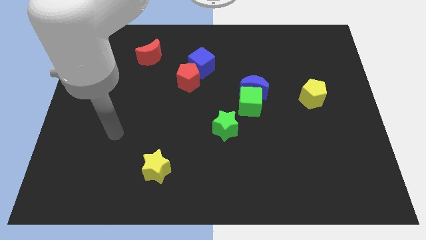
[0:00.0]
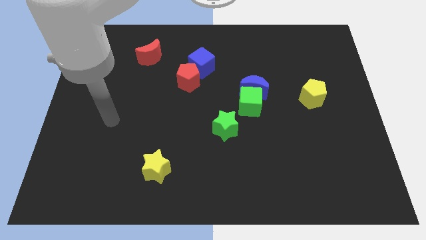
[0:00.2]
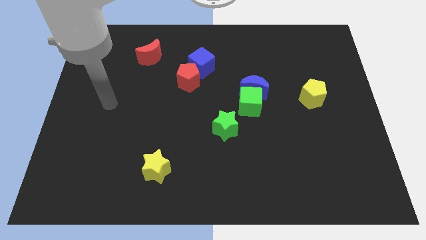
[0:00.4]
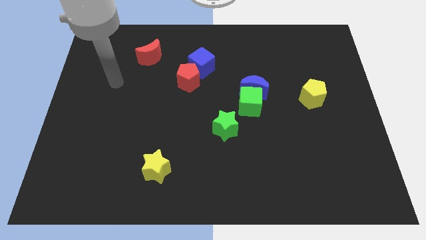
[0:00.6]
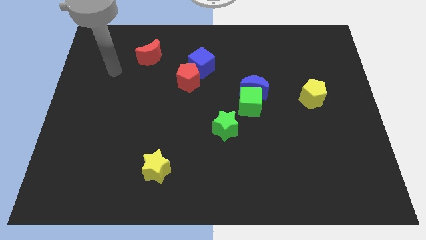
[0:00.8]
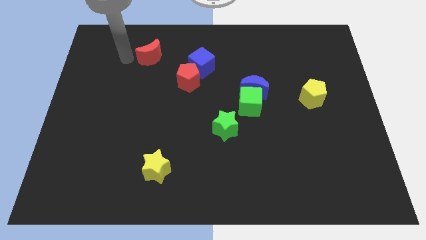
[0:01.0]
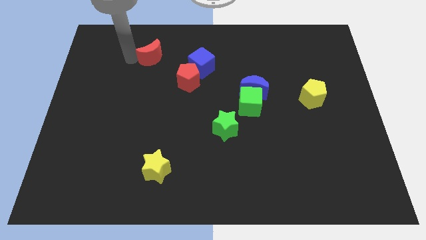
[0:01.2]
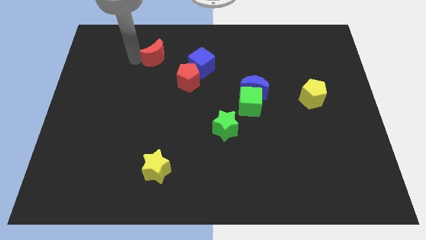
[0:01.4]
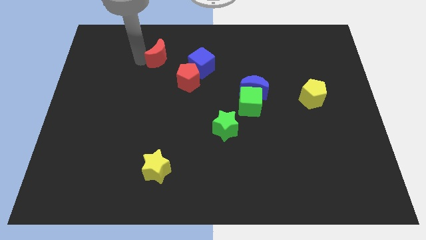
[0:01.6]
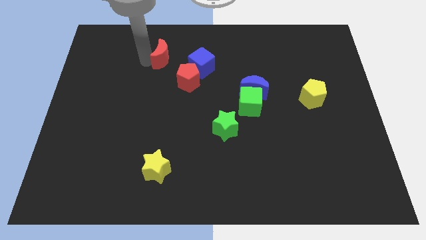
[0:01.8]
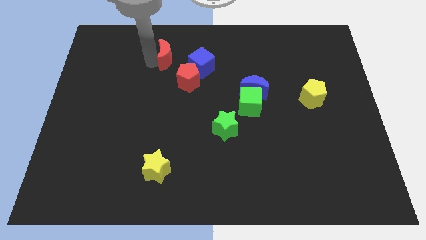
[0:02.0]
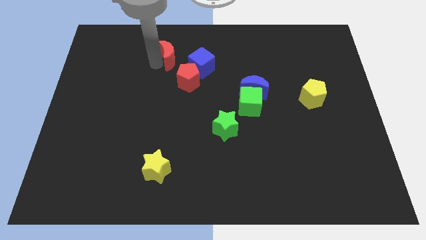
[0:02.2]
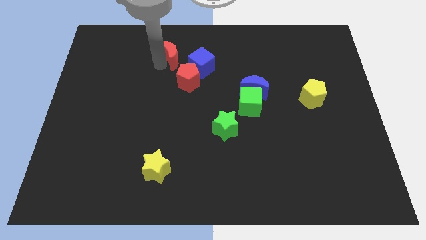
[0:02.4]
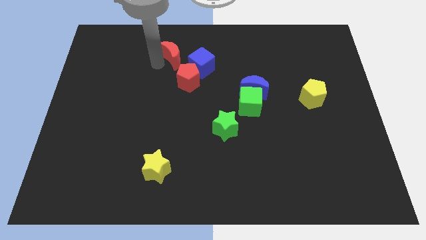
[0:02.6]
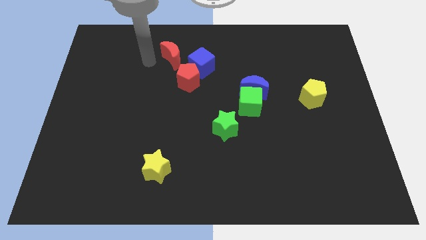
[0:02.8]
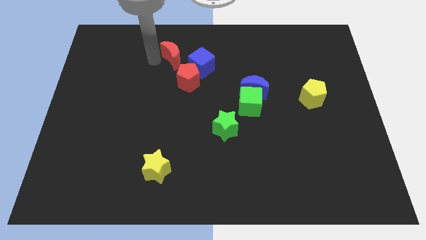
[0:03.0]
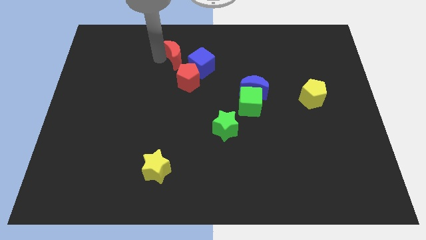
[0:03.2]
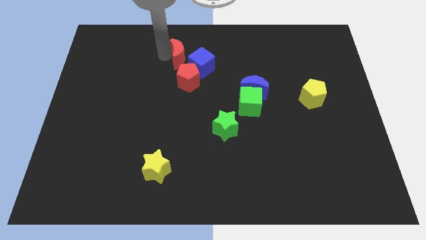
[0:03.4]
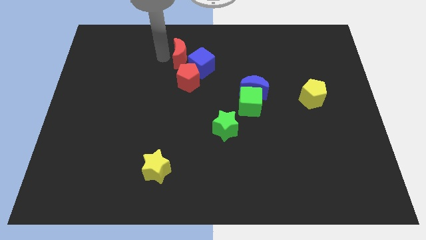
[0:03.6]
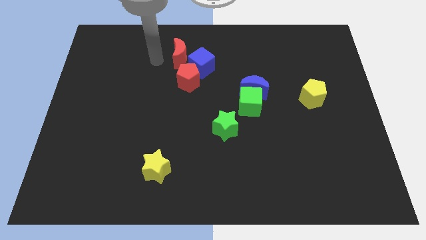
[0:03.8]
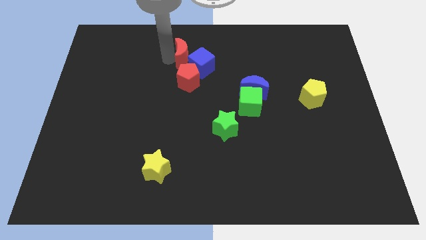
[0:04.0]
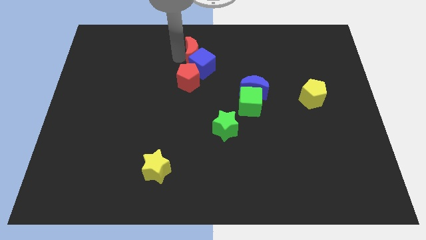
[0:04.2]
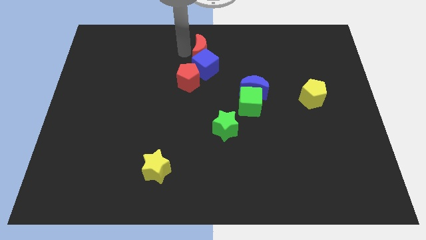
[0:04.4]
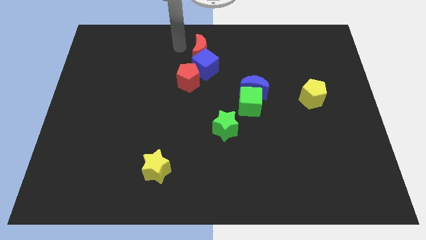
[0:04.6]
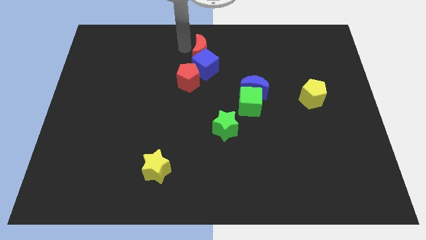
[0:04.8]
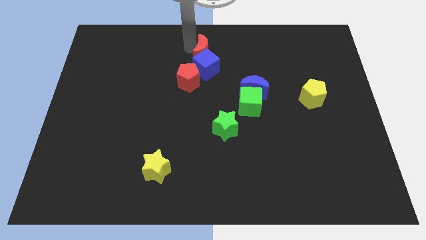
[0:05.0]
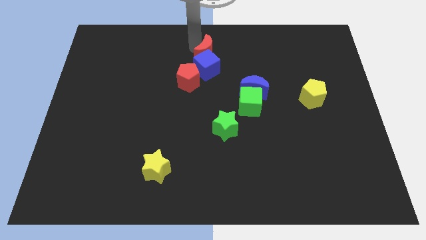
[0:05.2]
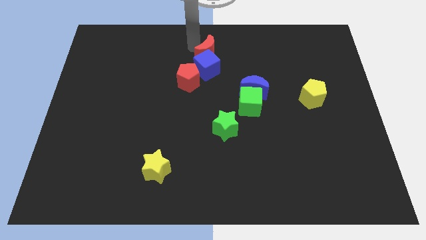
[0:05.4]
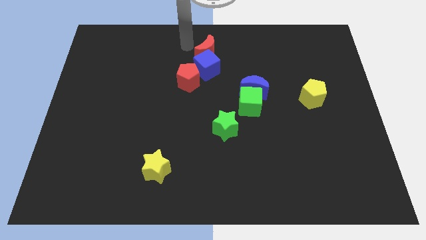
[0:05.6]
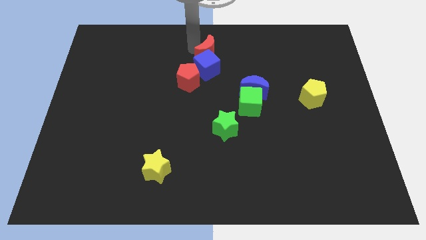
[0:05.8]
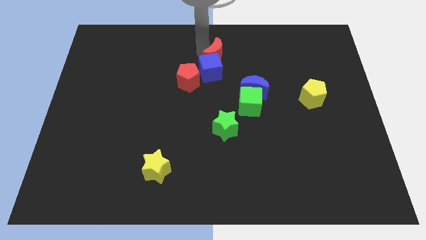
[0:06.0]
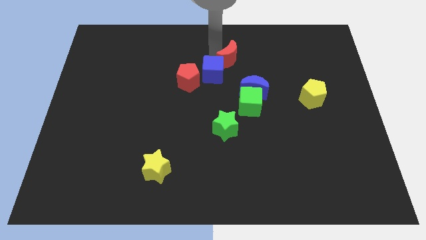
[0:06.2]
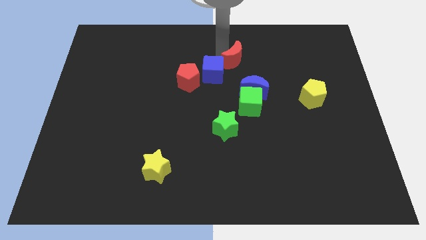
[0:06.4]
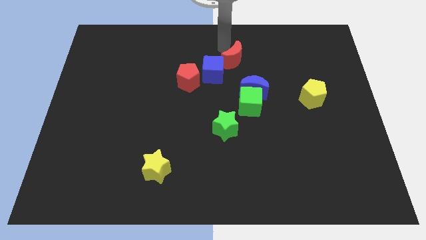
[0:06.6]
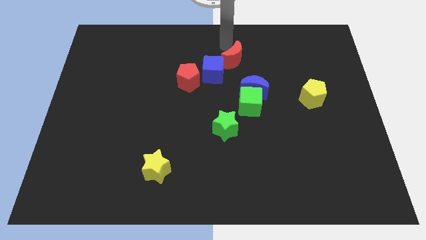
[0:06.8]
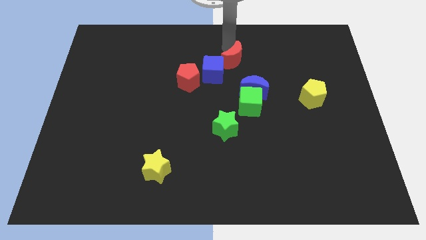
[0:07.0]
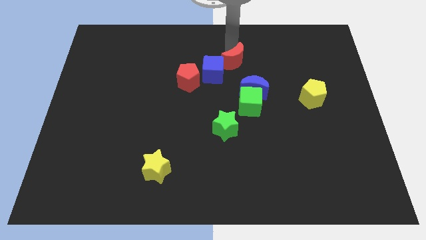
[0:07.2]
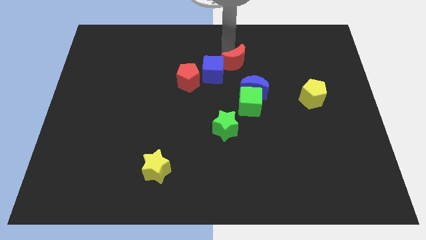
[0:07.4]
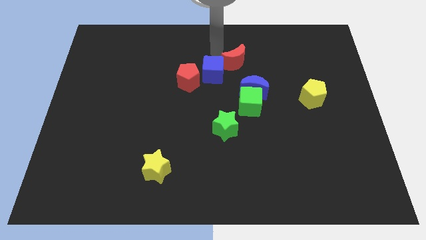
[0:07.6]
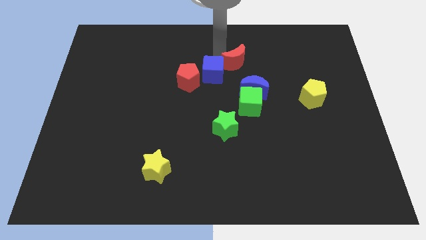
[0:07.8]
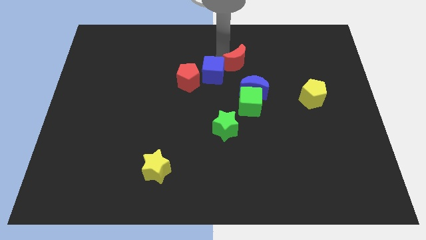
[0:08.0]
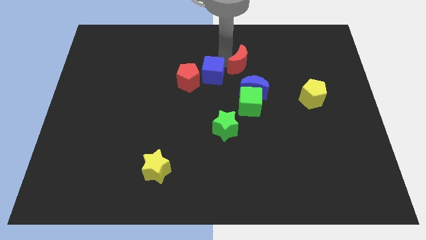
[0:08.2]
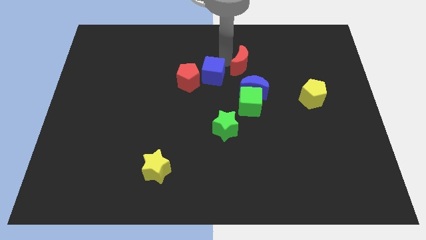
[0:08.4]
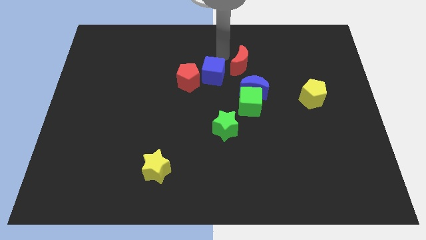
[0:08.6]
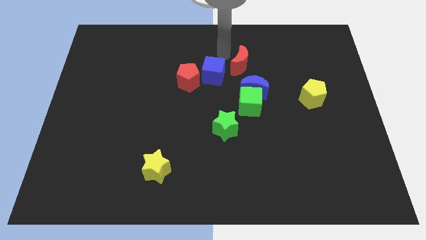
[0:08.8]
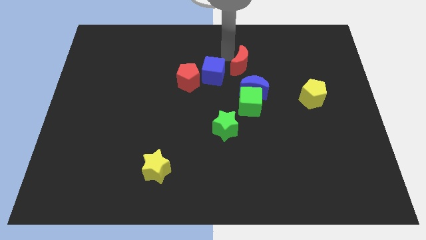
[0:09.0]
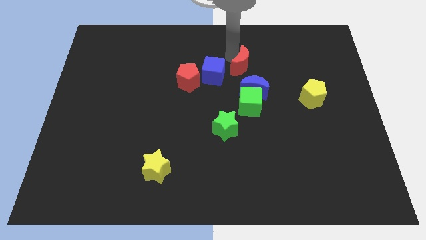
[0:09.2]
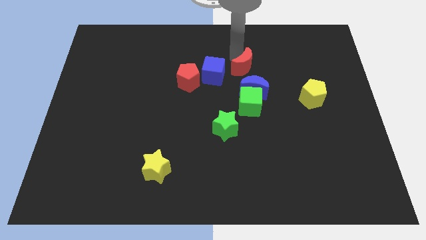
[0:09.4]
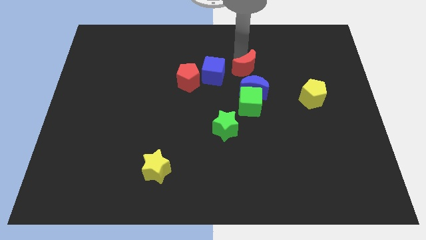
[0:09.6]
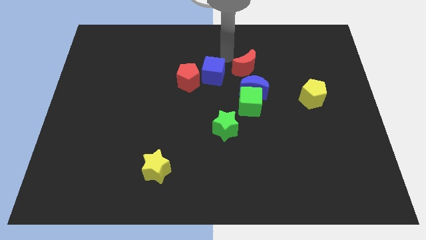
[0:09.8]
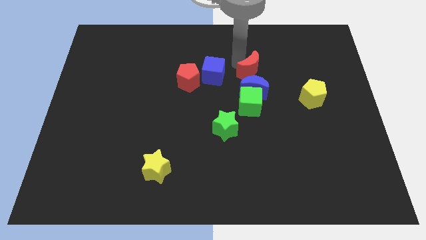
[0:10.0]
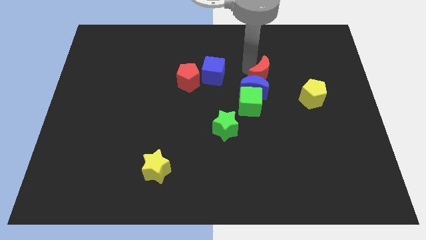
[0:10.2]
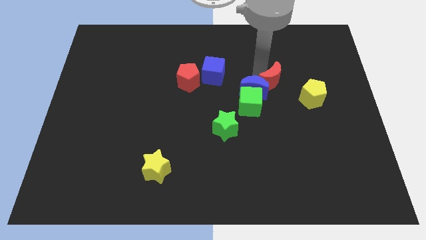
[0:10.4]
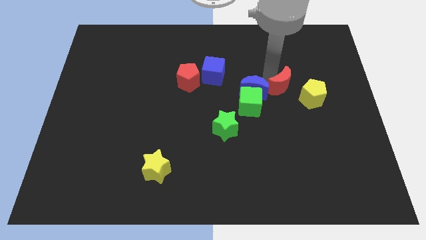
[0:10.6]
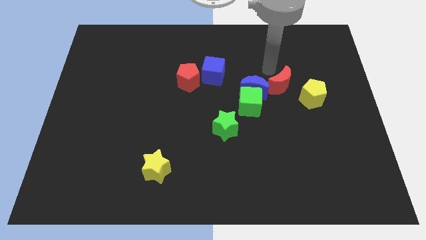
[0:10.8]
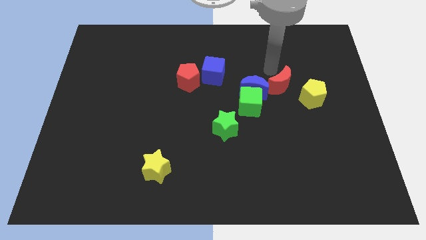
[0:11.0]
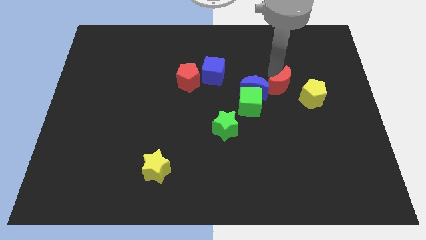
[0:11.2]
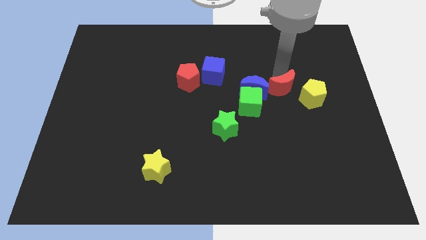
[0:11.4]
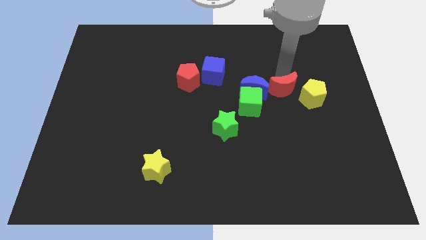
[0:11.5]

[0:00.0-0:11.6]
push the red moon right of the green cube

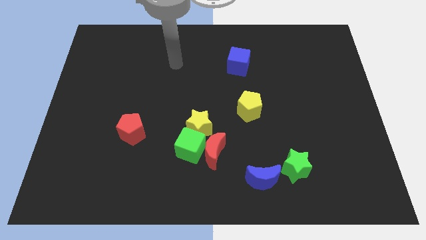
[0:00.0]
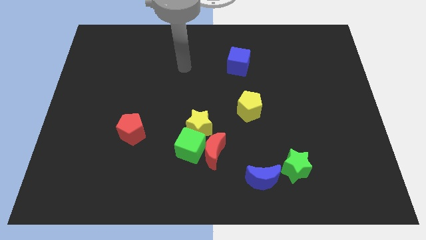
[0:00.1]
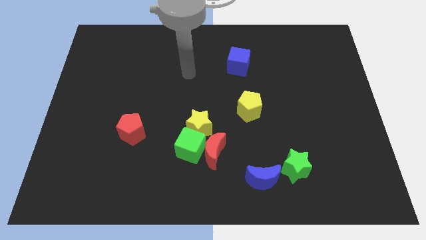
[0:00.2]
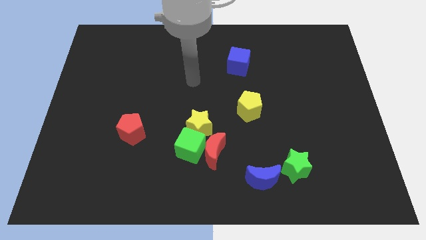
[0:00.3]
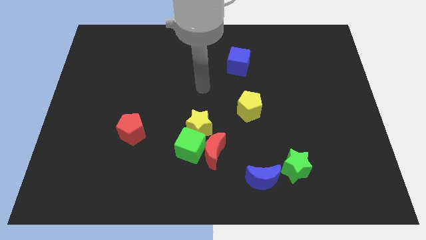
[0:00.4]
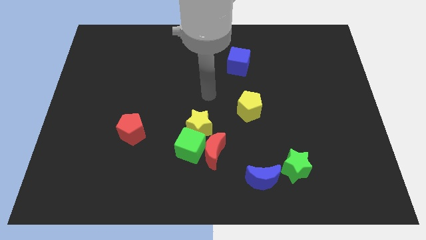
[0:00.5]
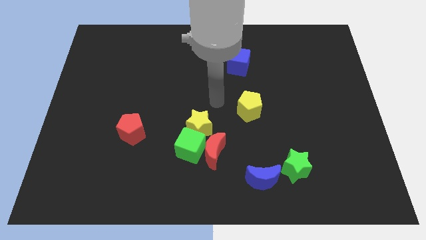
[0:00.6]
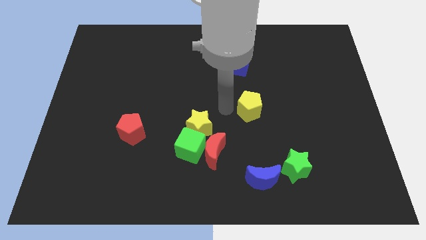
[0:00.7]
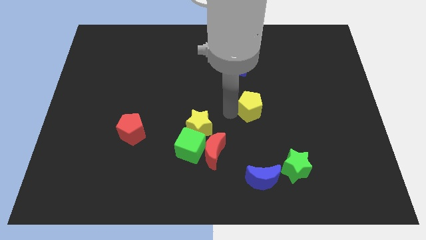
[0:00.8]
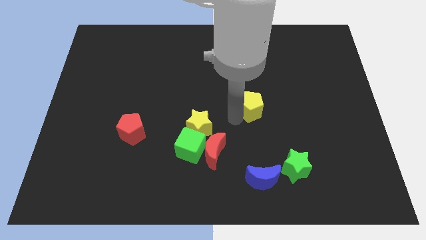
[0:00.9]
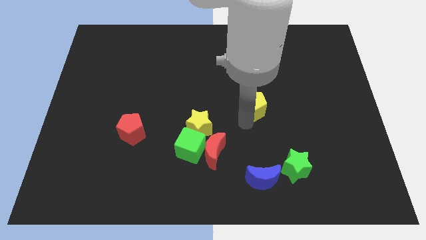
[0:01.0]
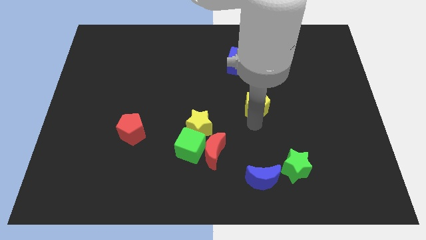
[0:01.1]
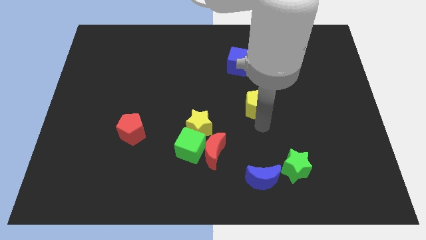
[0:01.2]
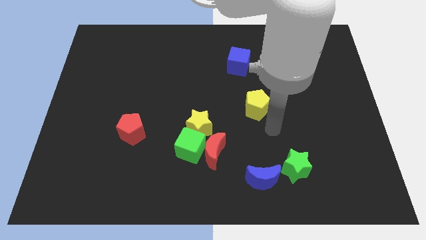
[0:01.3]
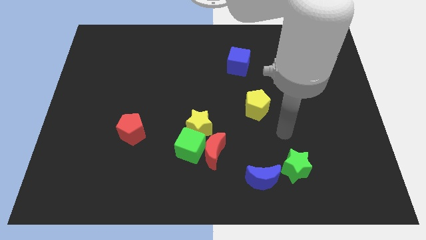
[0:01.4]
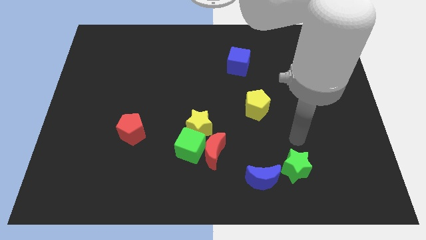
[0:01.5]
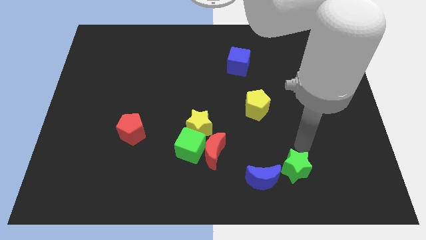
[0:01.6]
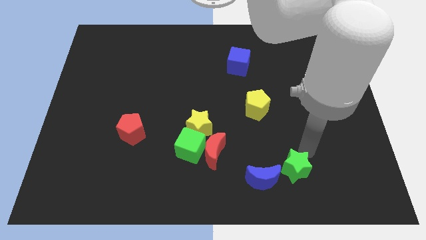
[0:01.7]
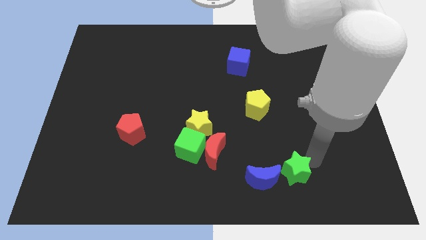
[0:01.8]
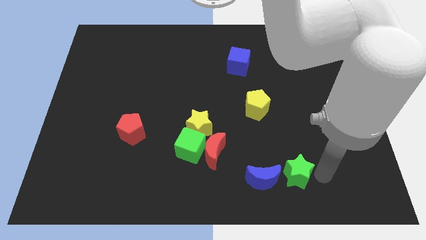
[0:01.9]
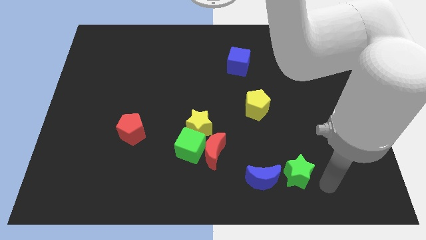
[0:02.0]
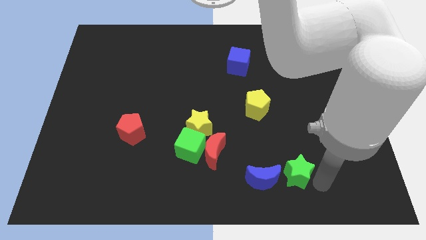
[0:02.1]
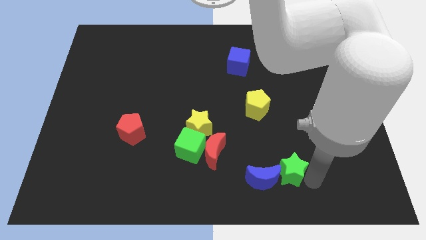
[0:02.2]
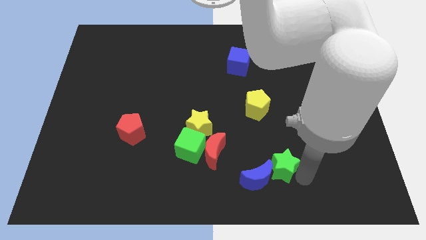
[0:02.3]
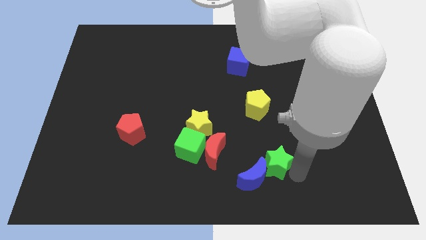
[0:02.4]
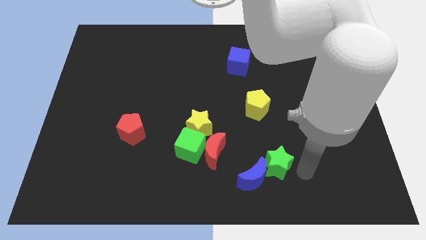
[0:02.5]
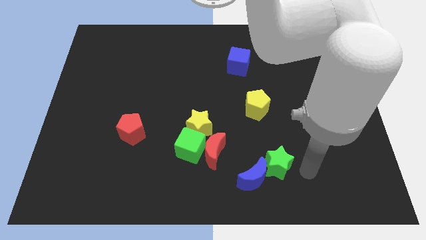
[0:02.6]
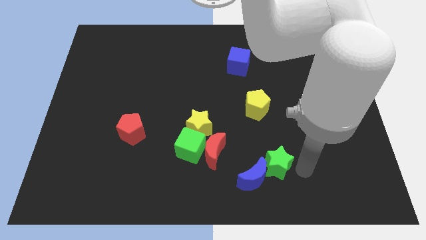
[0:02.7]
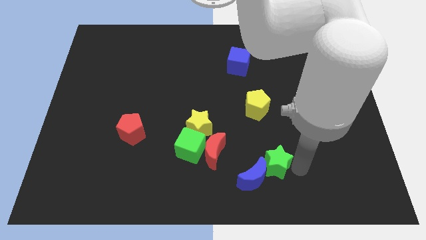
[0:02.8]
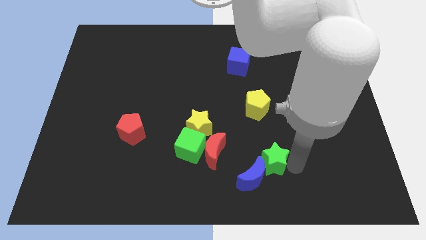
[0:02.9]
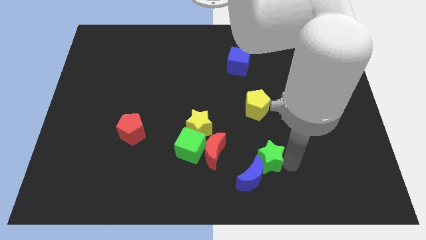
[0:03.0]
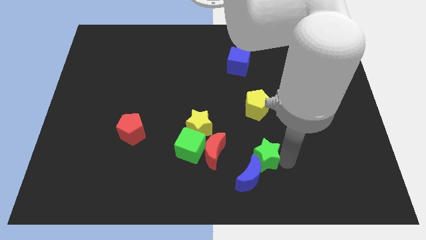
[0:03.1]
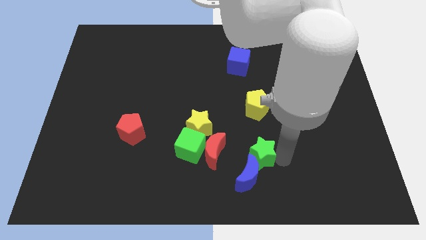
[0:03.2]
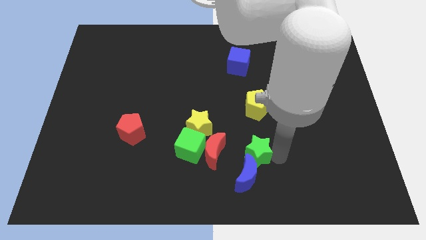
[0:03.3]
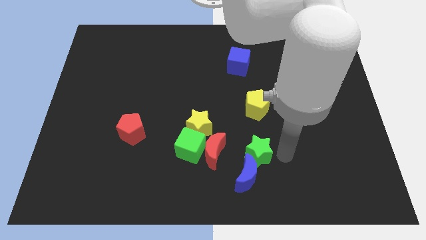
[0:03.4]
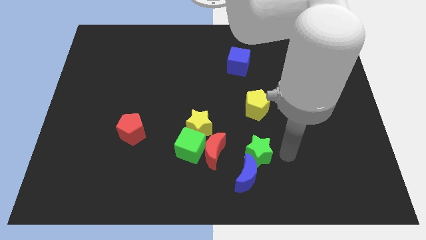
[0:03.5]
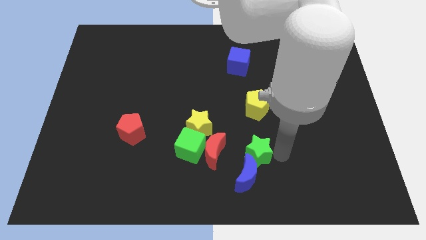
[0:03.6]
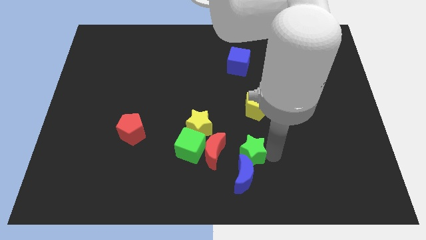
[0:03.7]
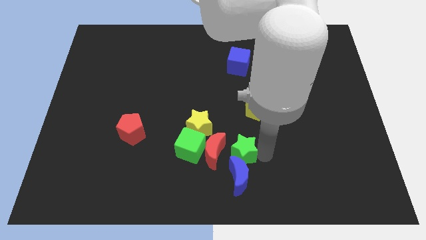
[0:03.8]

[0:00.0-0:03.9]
move the green star diagonally up and to the left of the blue moon
